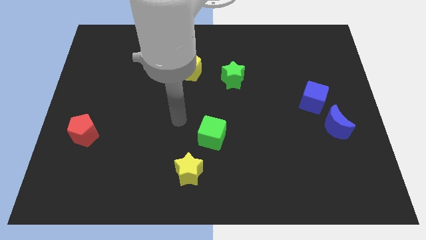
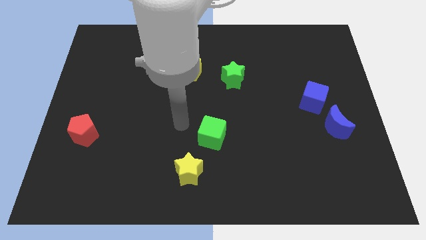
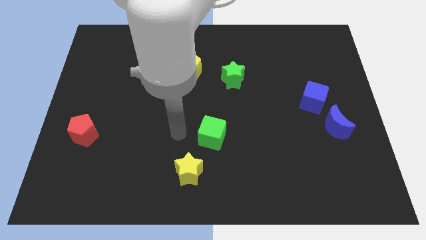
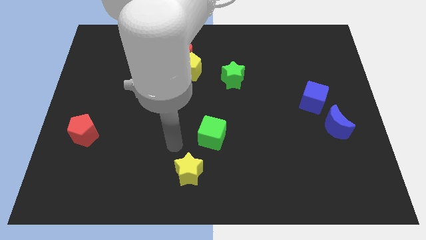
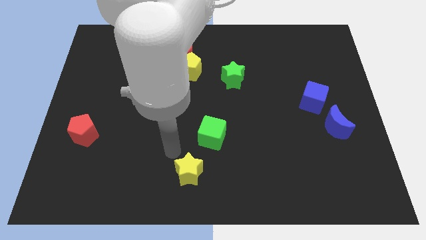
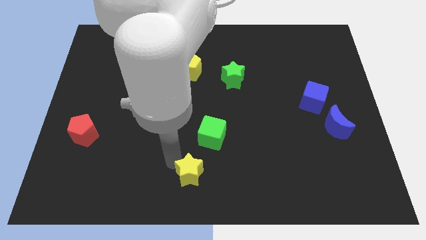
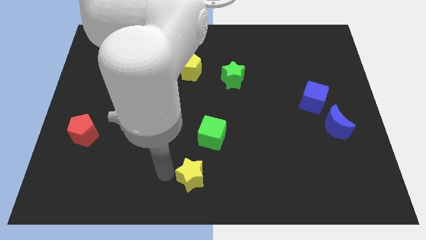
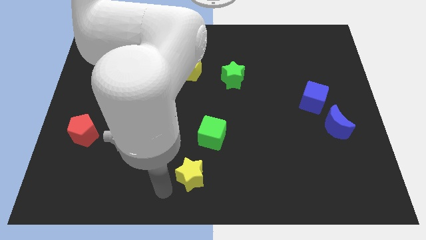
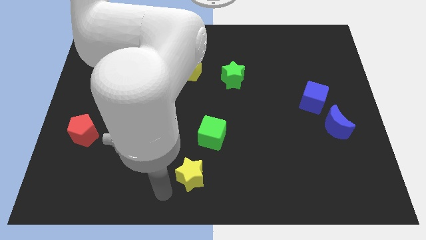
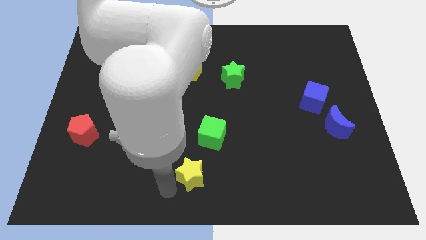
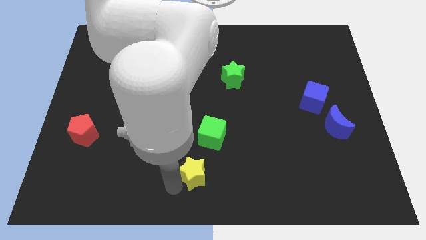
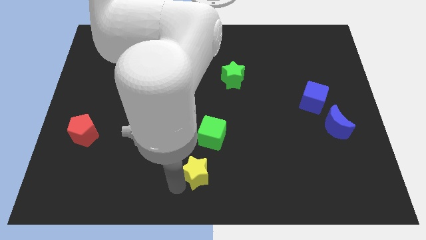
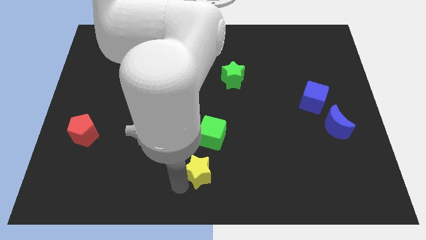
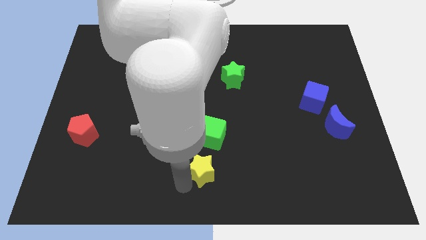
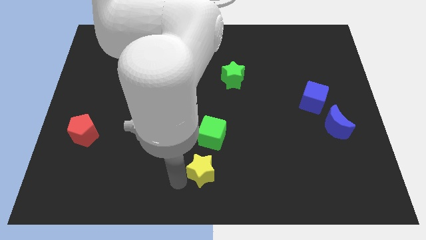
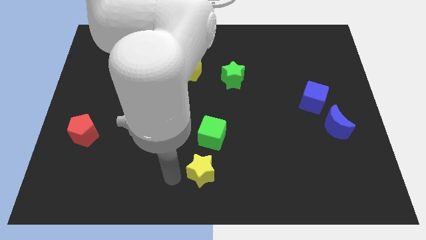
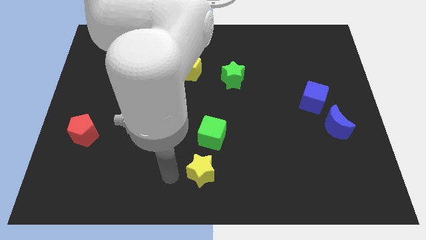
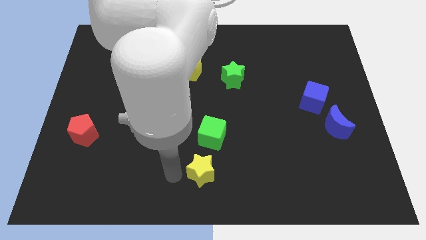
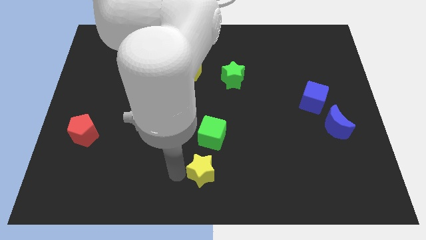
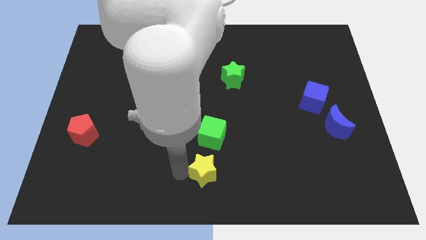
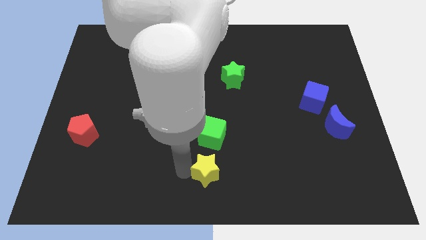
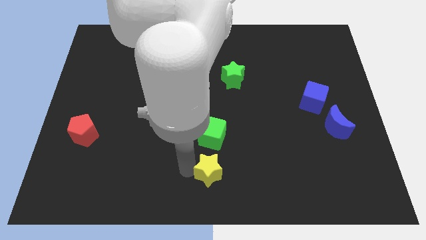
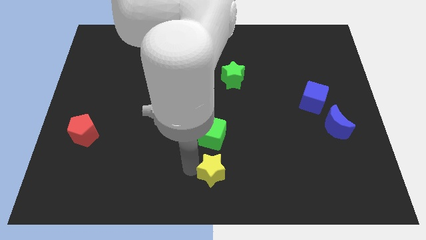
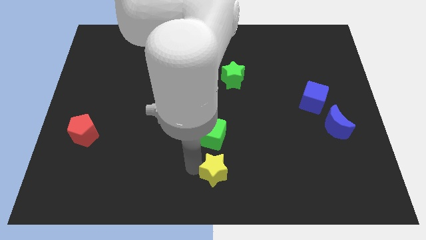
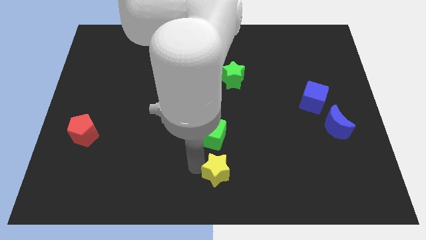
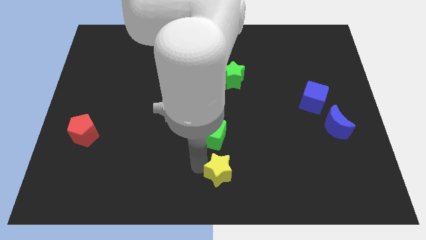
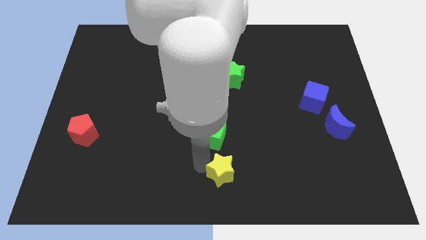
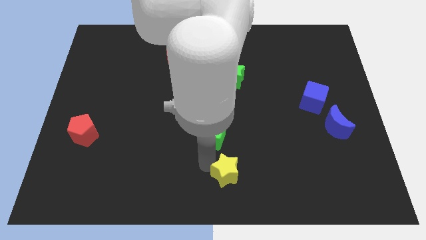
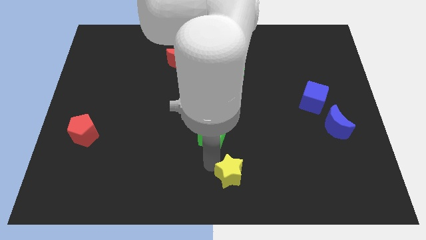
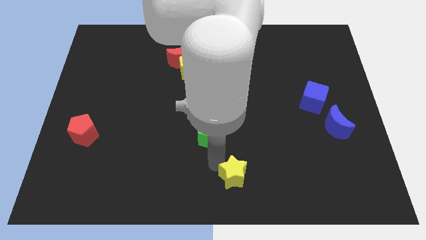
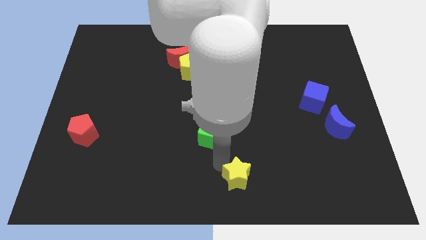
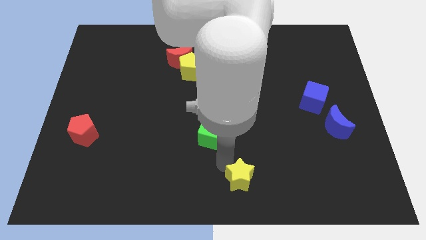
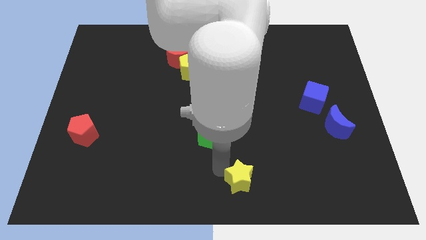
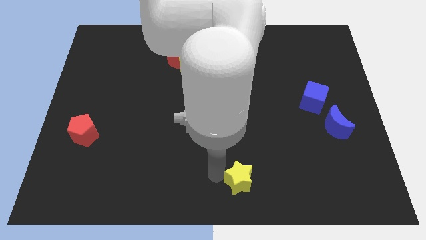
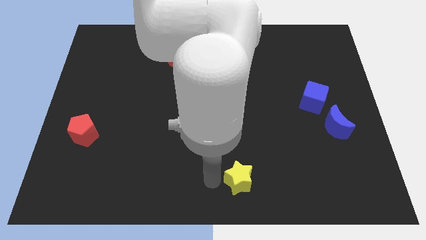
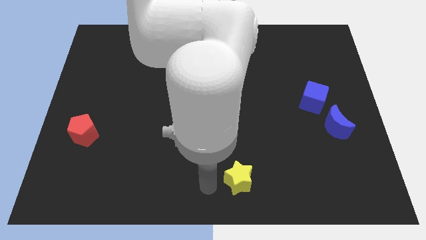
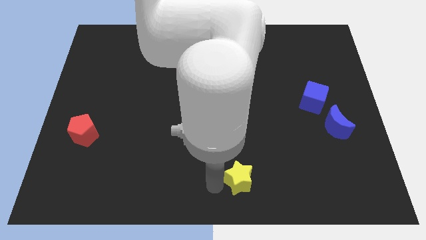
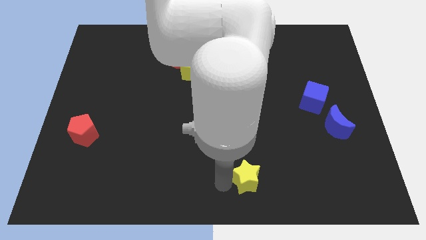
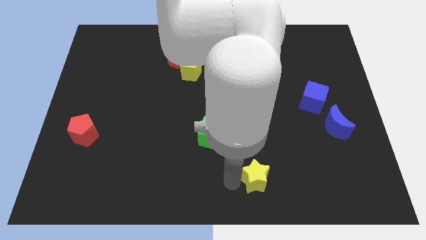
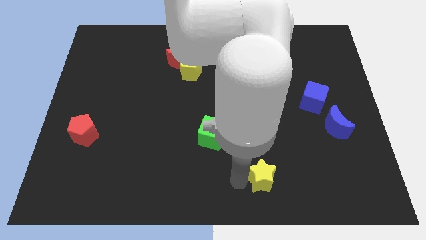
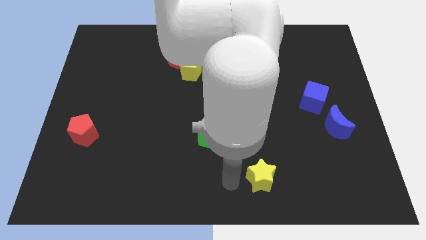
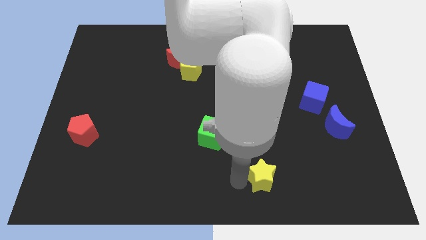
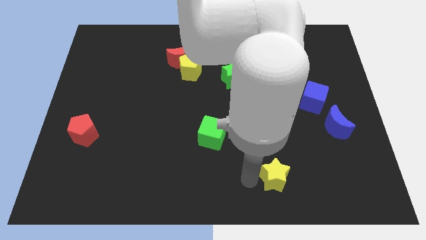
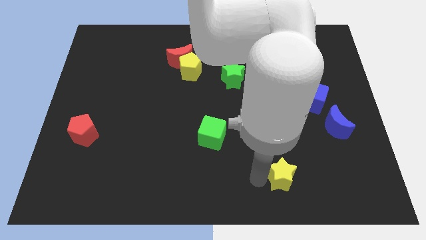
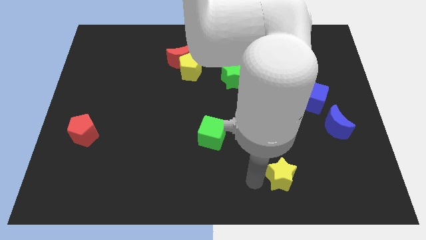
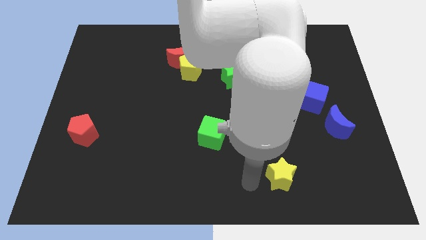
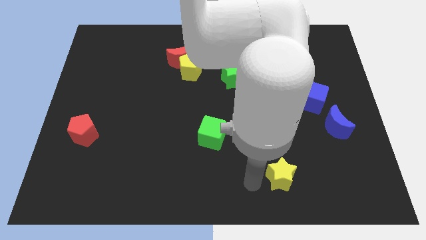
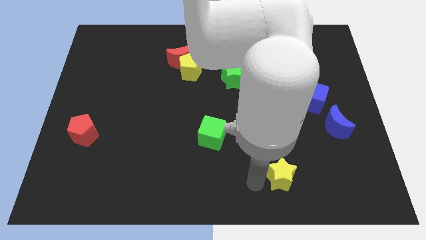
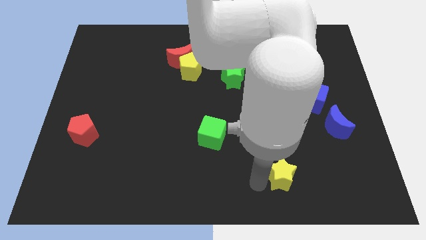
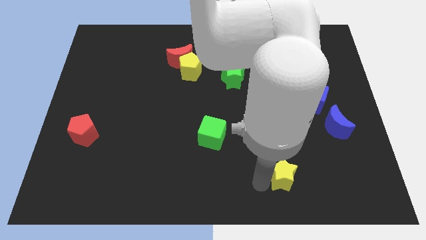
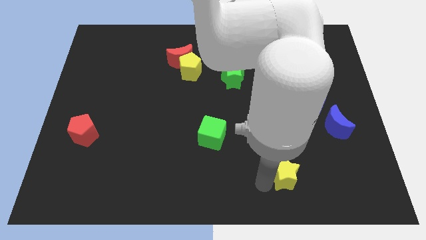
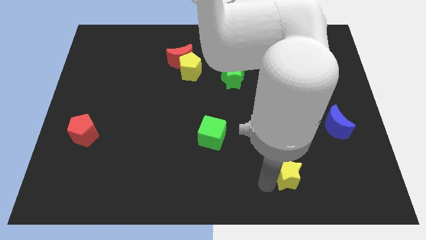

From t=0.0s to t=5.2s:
slide the yellow star to the right

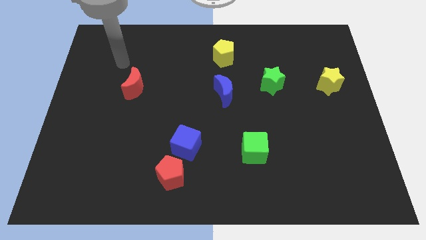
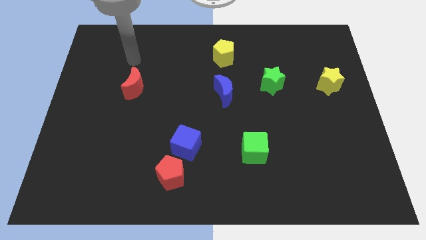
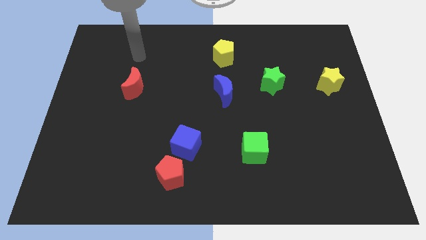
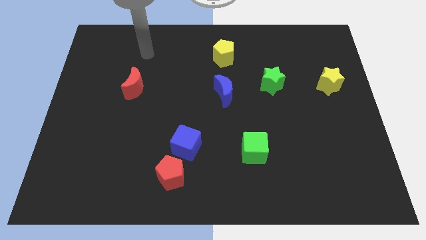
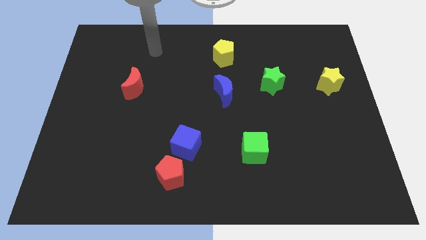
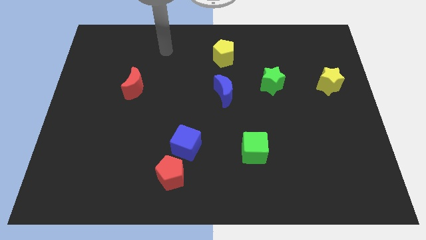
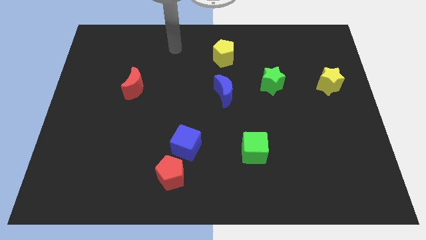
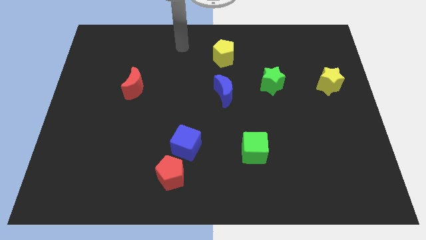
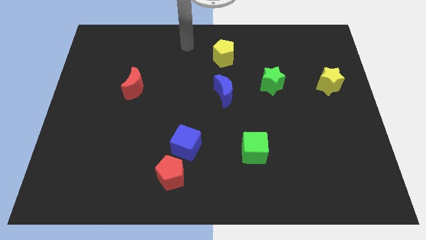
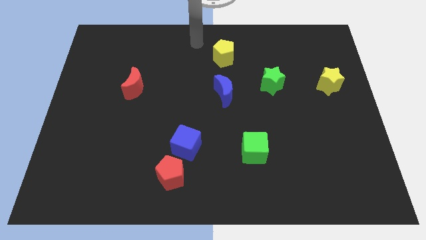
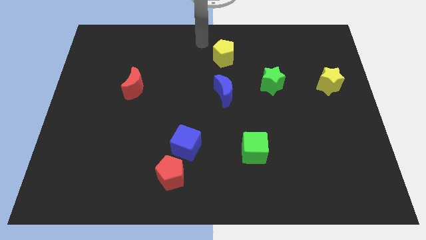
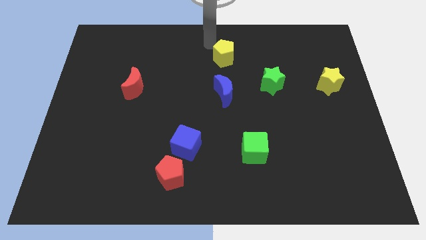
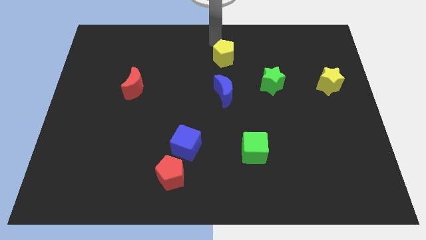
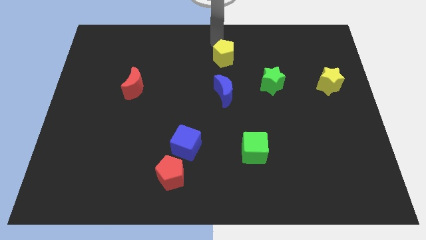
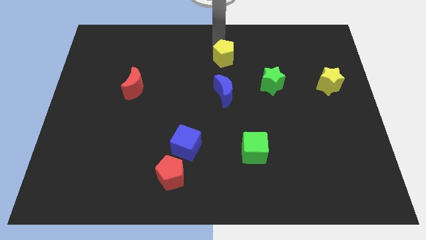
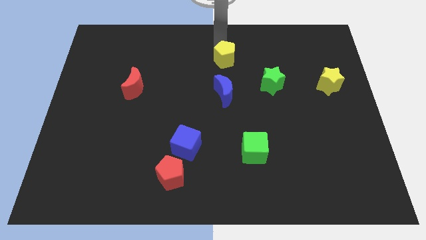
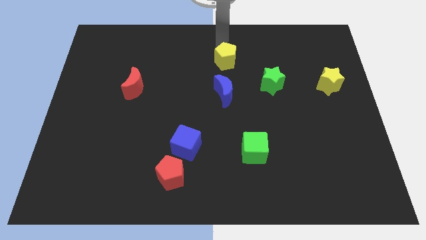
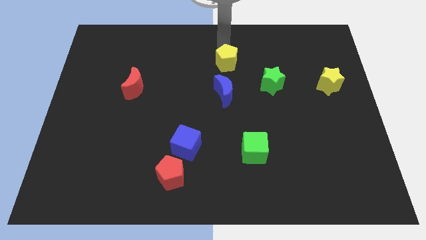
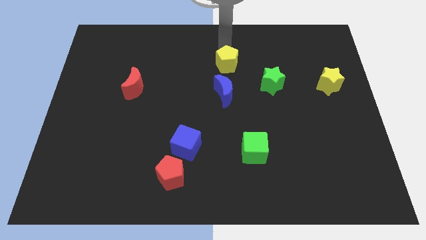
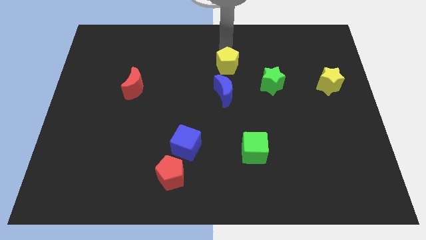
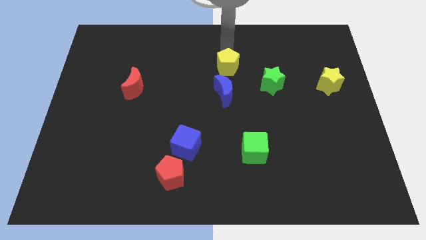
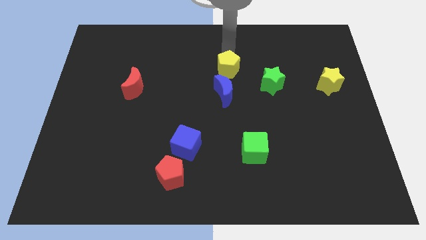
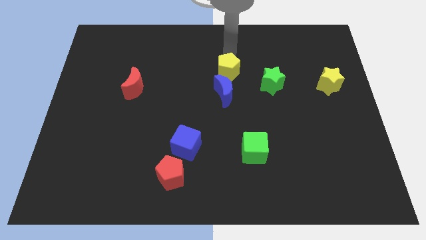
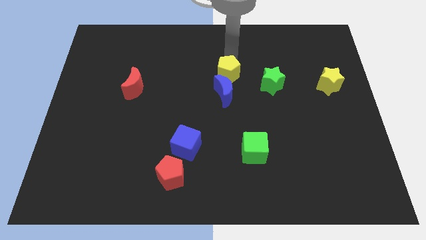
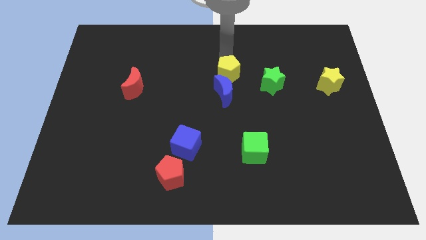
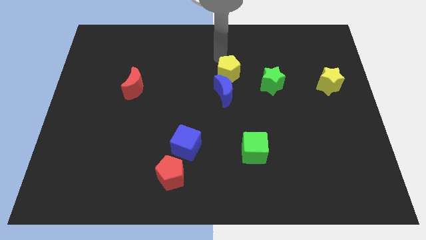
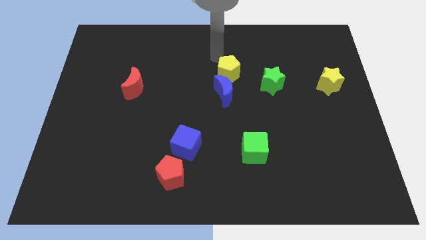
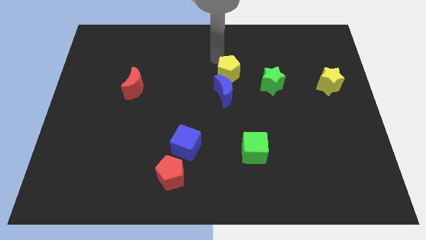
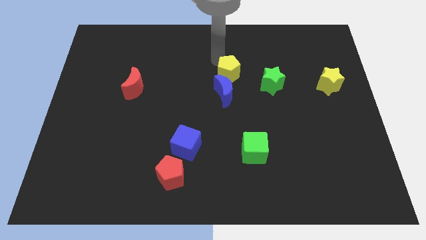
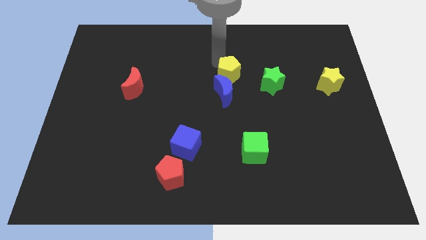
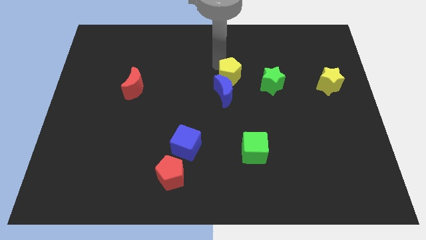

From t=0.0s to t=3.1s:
move the yellow pentagon somewhat downwards
